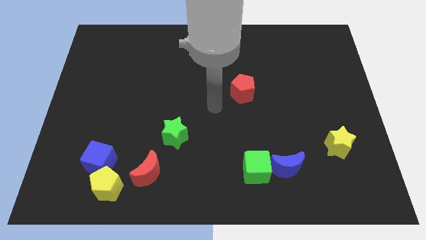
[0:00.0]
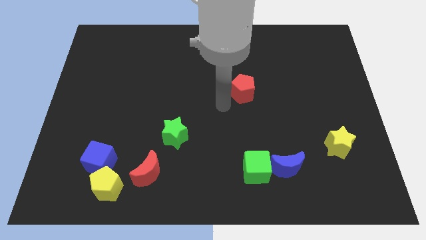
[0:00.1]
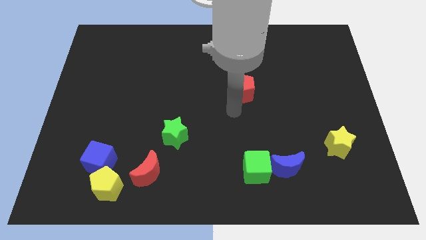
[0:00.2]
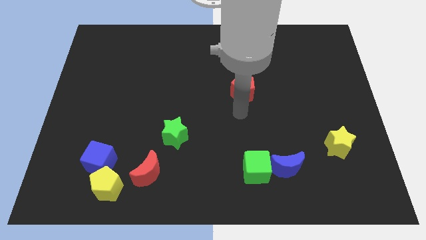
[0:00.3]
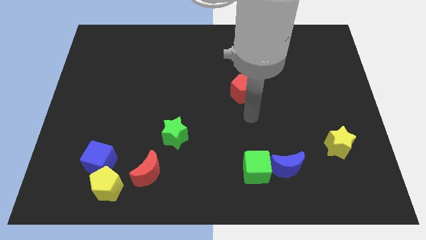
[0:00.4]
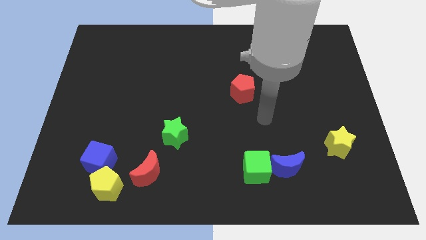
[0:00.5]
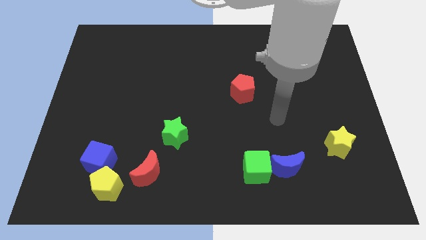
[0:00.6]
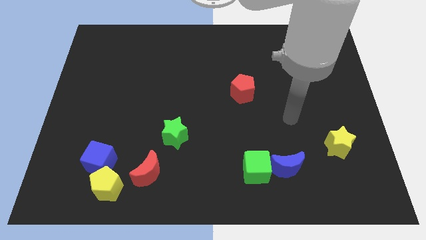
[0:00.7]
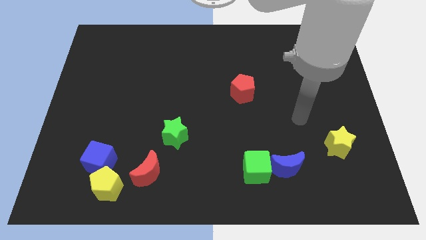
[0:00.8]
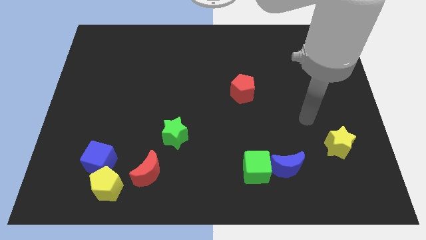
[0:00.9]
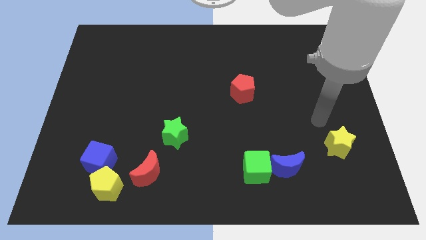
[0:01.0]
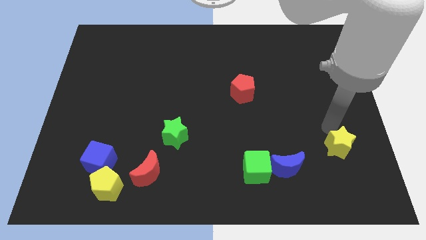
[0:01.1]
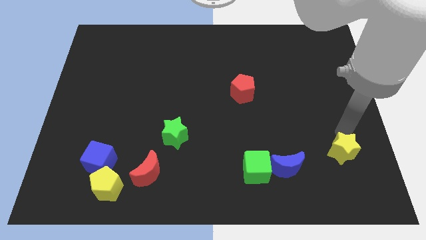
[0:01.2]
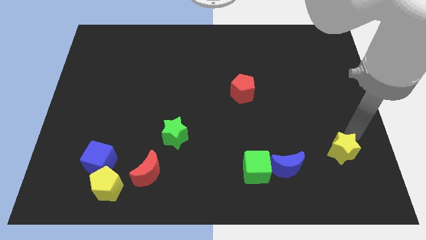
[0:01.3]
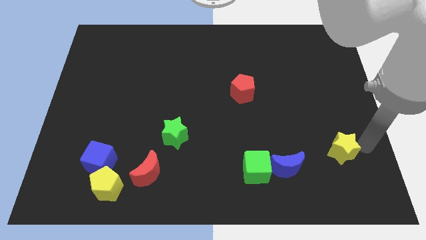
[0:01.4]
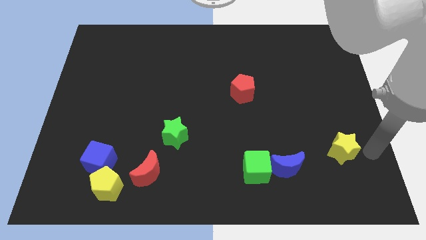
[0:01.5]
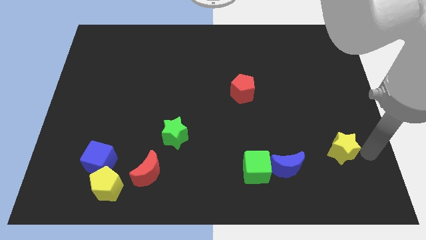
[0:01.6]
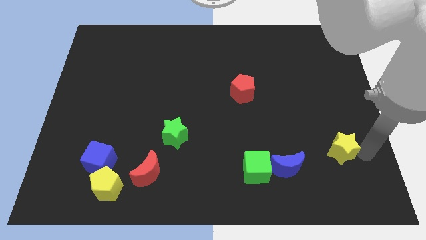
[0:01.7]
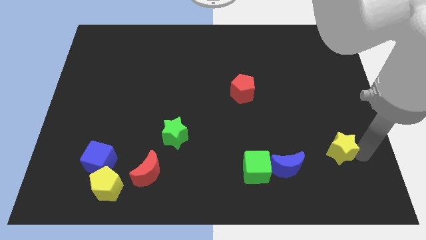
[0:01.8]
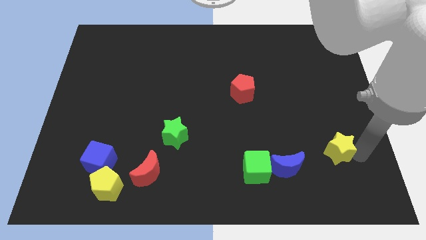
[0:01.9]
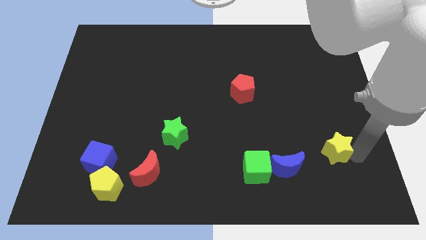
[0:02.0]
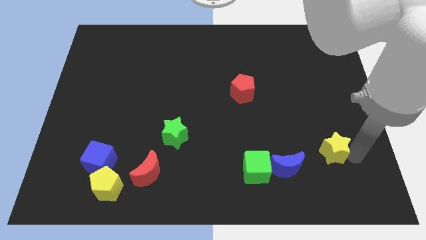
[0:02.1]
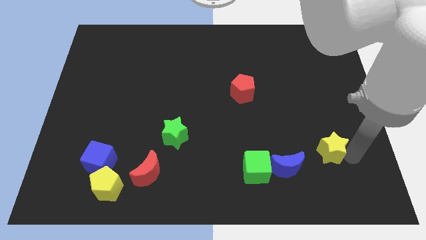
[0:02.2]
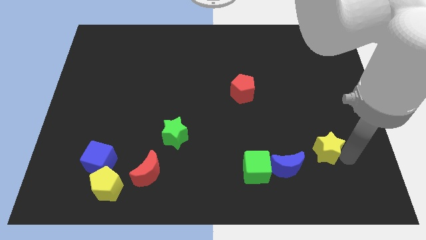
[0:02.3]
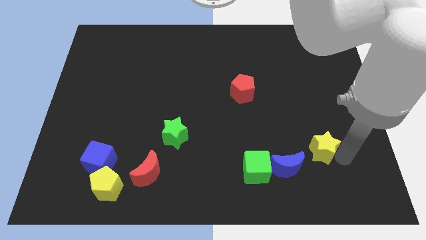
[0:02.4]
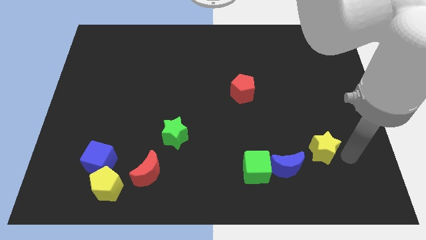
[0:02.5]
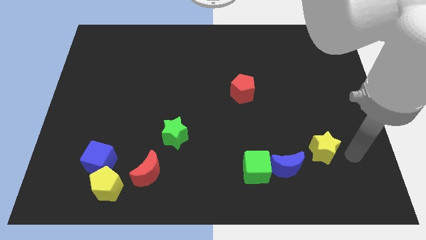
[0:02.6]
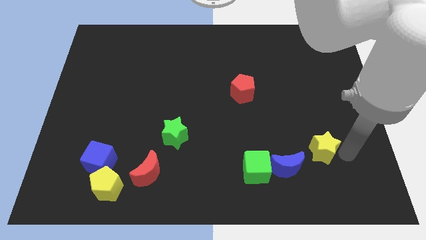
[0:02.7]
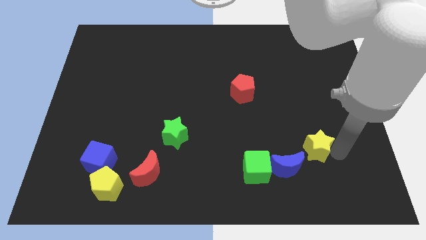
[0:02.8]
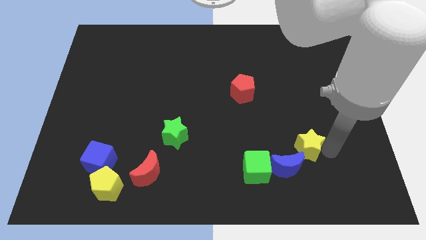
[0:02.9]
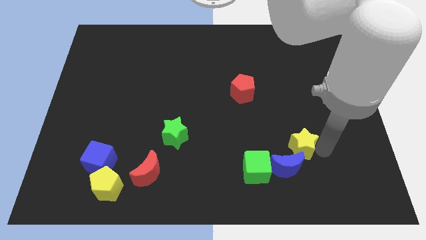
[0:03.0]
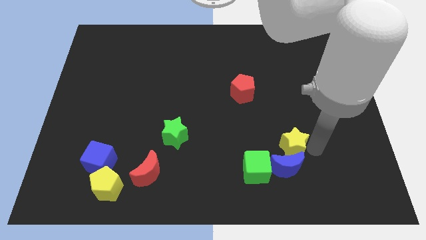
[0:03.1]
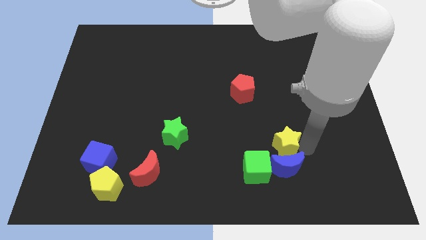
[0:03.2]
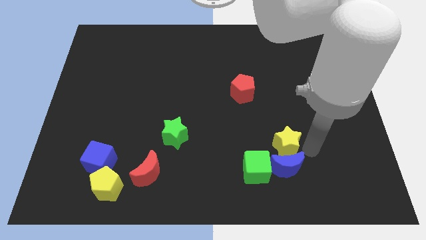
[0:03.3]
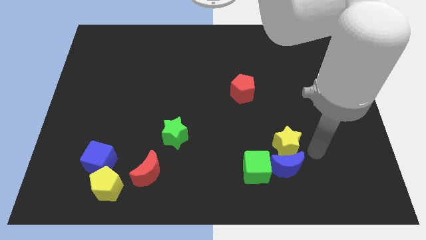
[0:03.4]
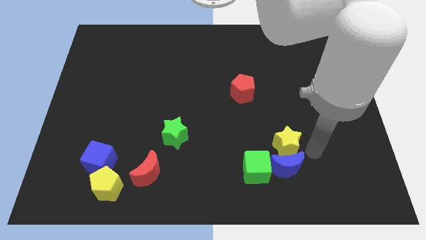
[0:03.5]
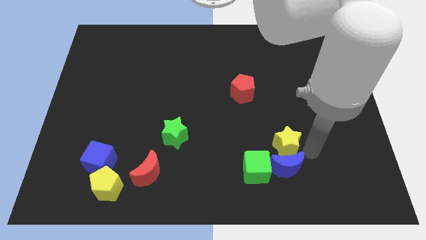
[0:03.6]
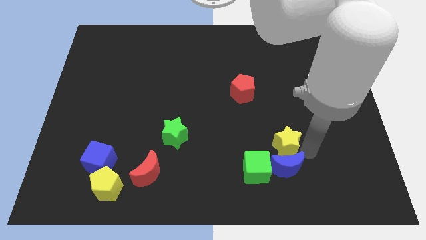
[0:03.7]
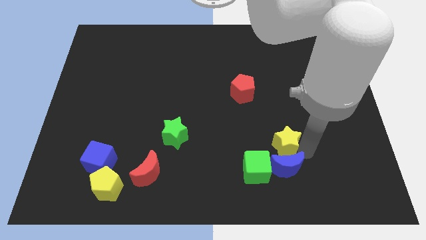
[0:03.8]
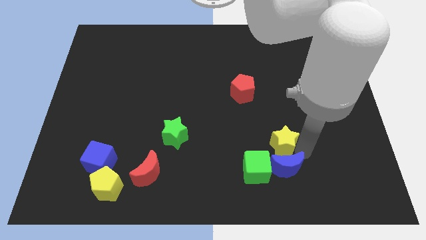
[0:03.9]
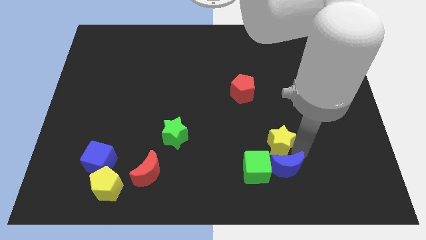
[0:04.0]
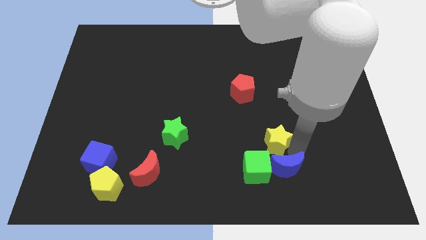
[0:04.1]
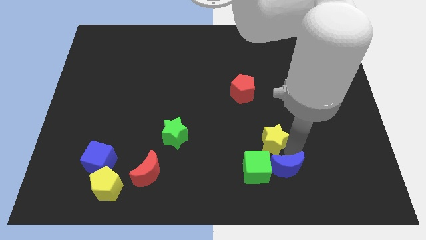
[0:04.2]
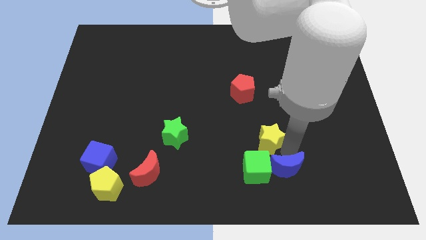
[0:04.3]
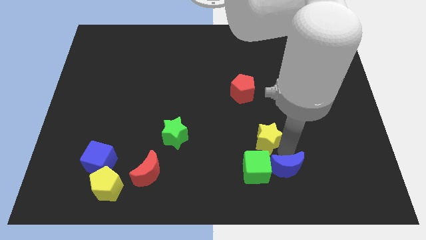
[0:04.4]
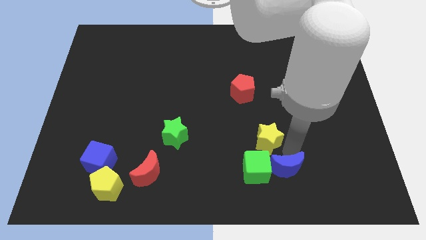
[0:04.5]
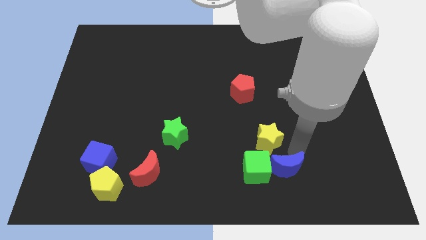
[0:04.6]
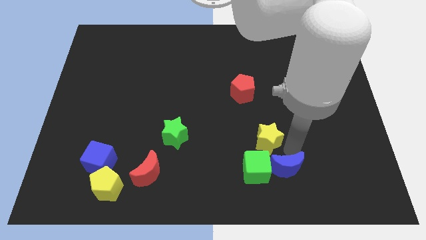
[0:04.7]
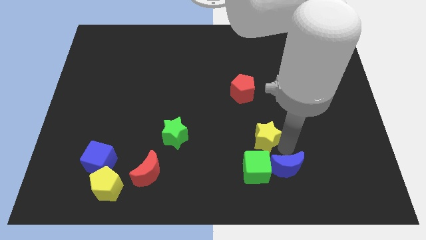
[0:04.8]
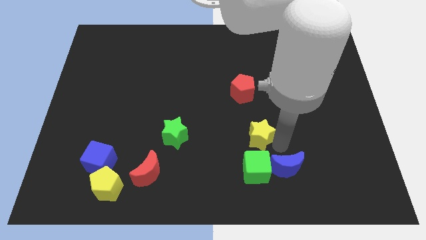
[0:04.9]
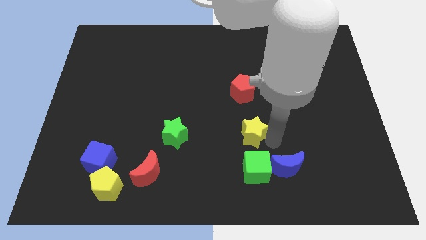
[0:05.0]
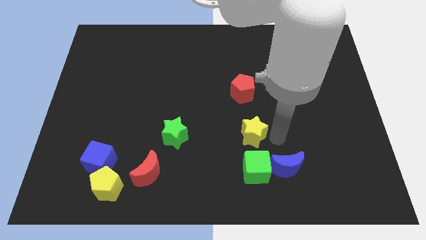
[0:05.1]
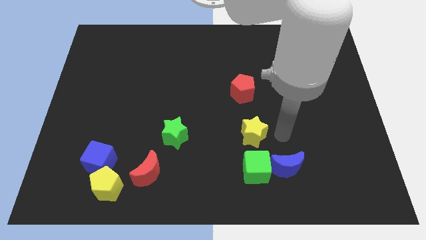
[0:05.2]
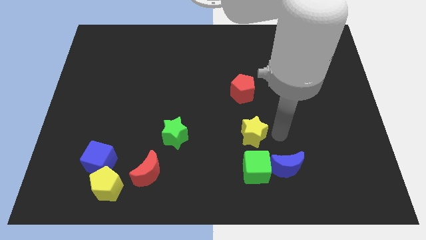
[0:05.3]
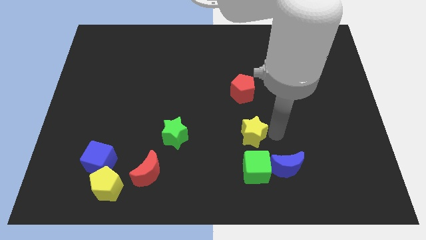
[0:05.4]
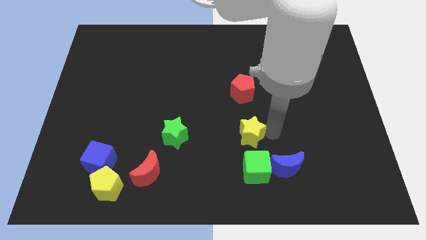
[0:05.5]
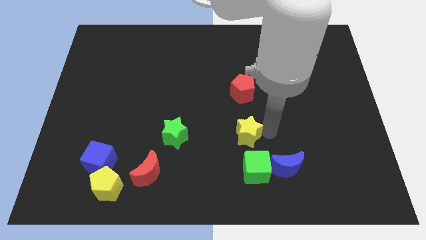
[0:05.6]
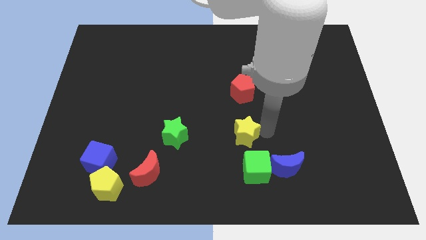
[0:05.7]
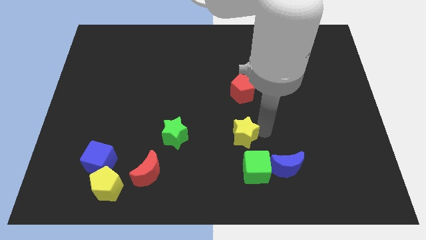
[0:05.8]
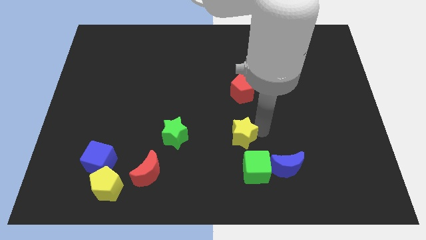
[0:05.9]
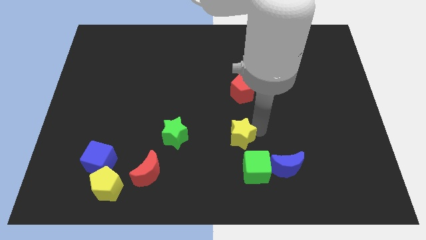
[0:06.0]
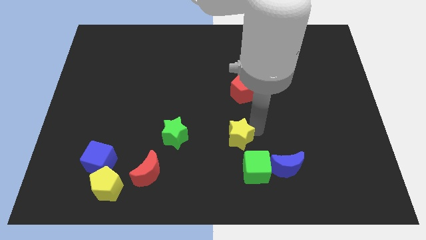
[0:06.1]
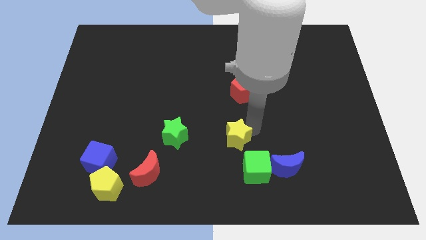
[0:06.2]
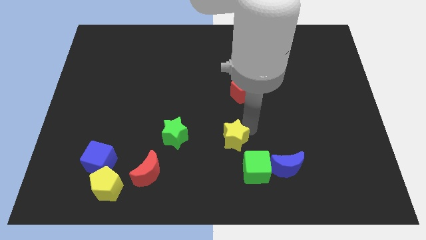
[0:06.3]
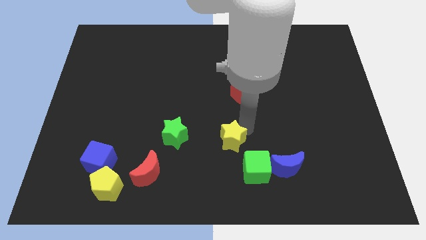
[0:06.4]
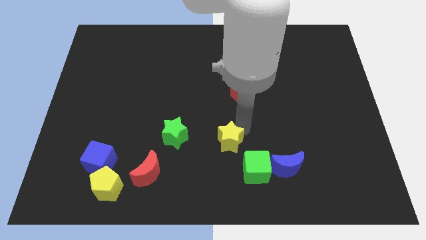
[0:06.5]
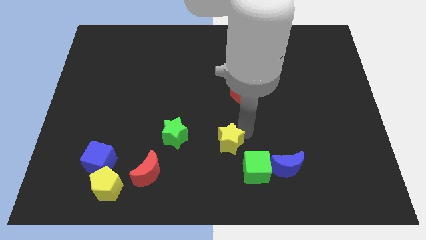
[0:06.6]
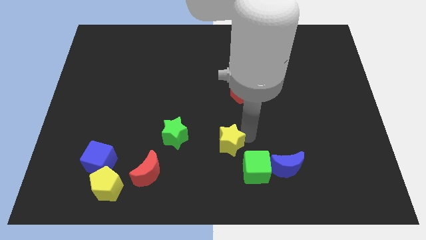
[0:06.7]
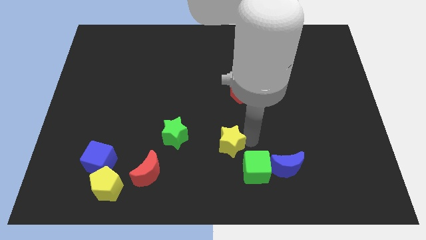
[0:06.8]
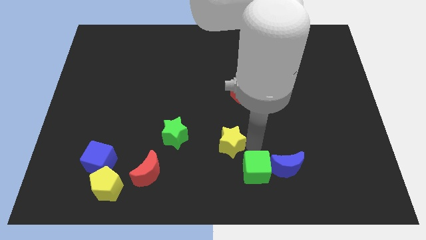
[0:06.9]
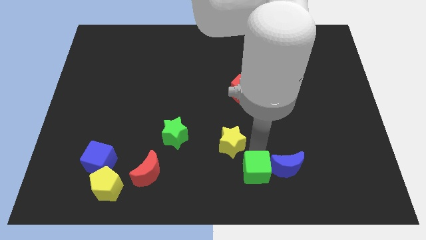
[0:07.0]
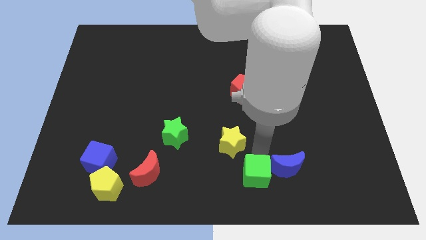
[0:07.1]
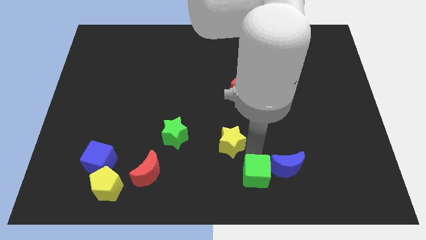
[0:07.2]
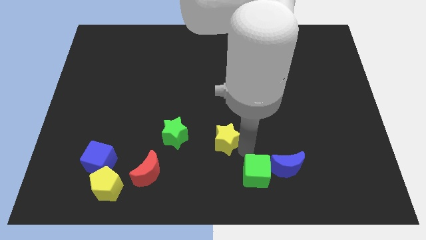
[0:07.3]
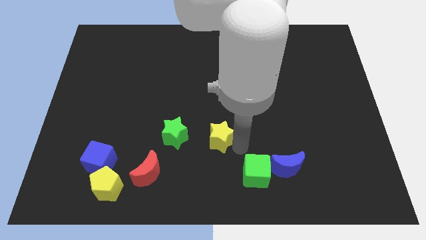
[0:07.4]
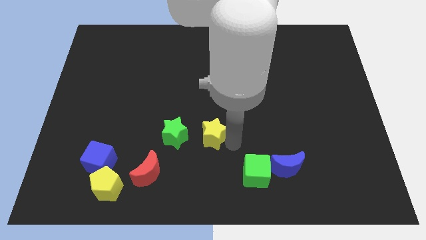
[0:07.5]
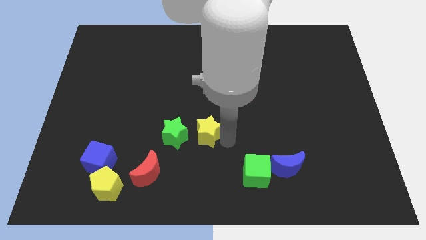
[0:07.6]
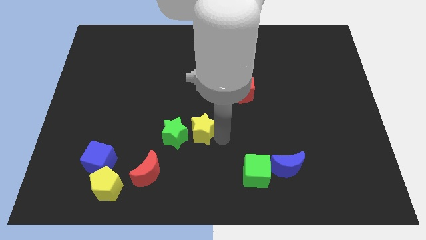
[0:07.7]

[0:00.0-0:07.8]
push the yellow star towards the green star
